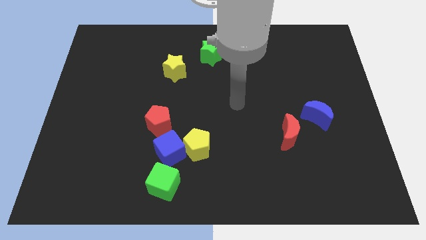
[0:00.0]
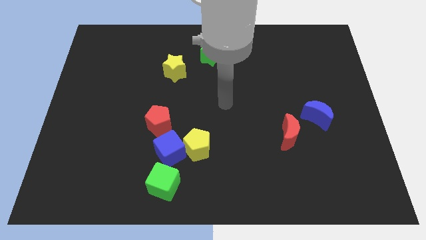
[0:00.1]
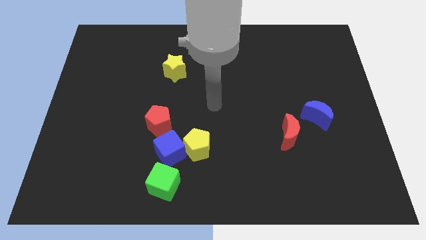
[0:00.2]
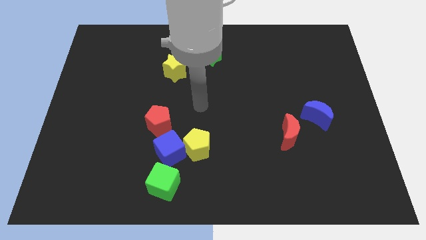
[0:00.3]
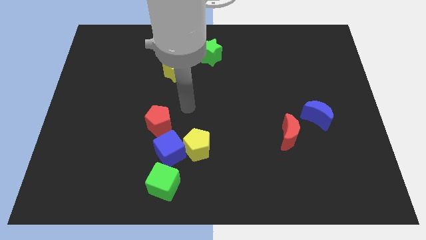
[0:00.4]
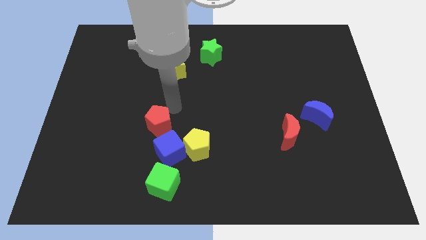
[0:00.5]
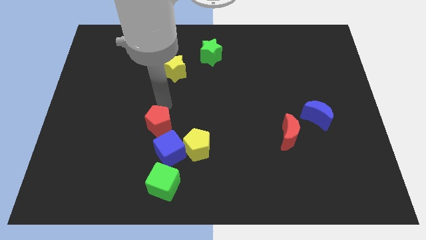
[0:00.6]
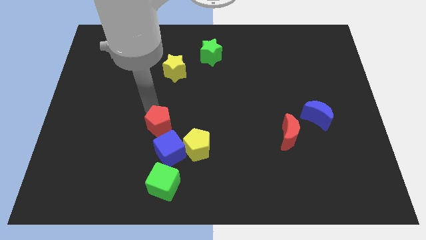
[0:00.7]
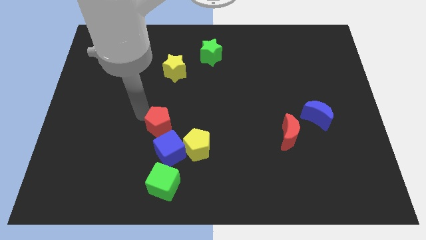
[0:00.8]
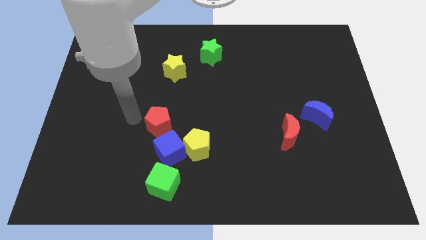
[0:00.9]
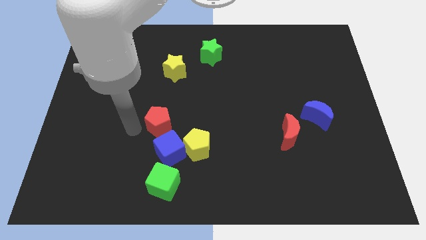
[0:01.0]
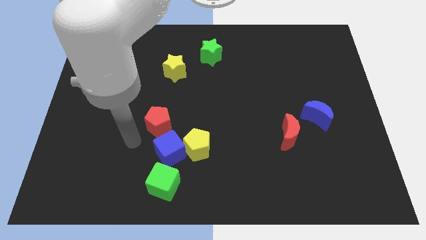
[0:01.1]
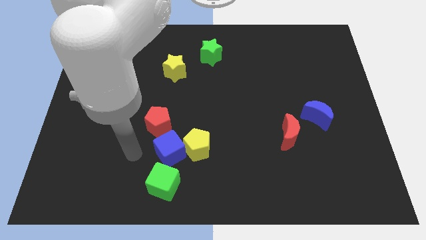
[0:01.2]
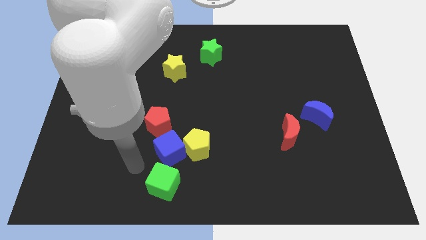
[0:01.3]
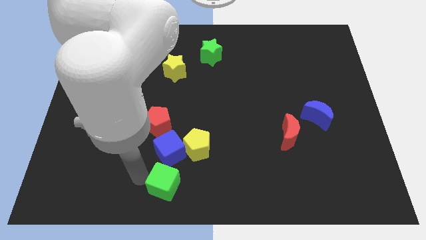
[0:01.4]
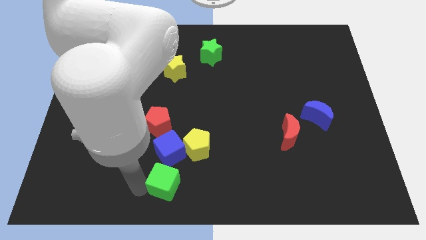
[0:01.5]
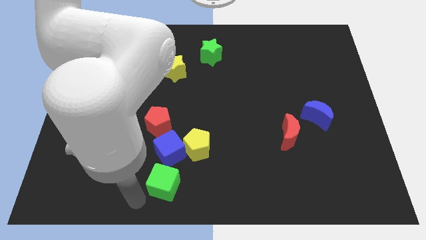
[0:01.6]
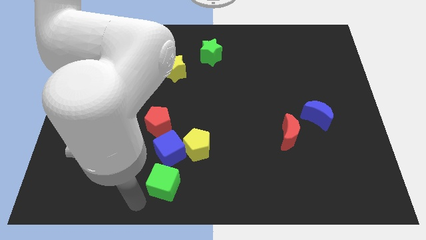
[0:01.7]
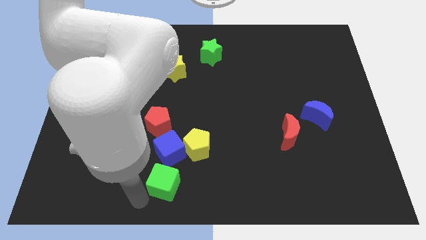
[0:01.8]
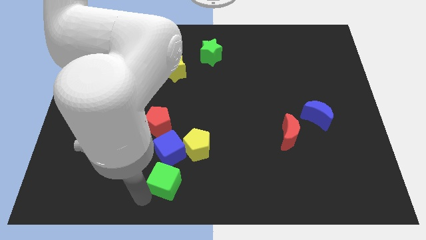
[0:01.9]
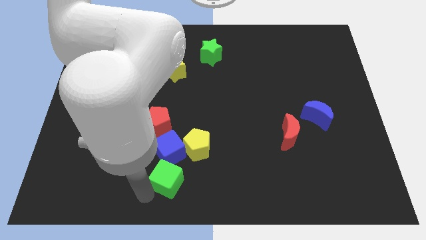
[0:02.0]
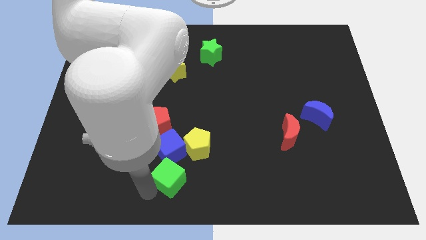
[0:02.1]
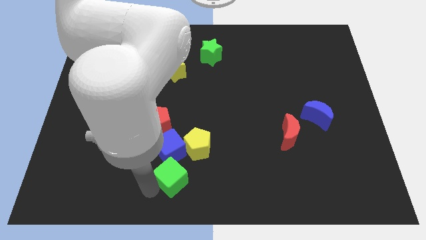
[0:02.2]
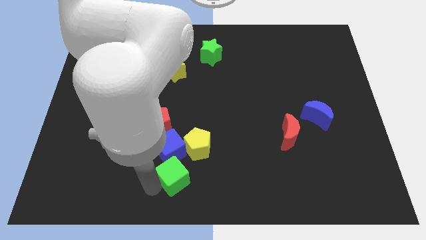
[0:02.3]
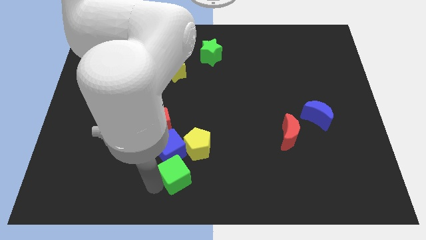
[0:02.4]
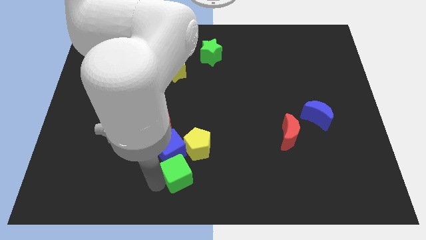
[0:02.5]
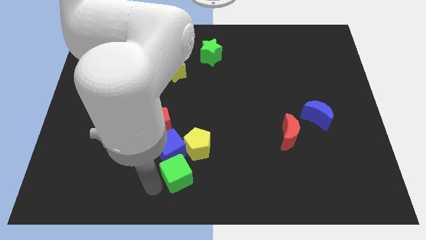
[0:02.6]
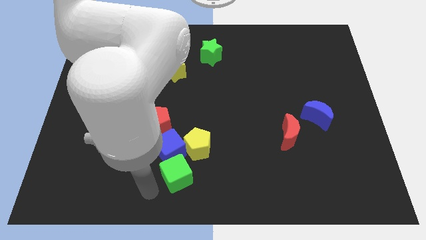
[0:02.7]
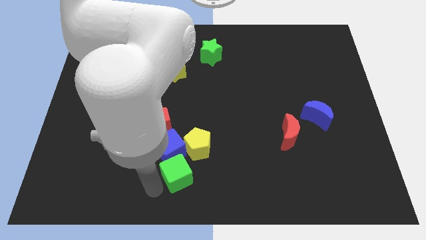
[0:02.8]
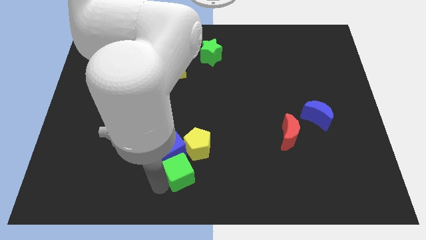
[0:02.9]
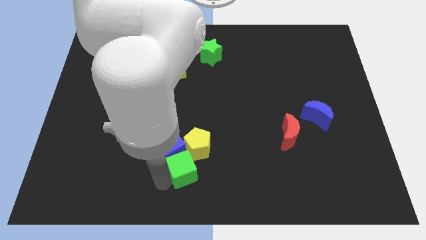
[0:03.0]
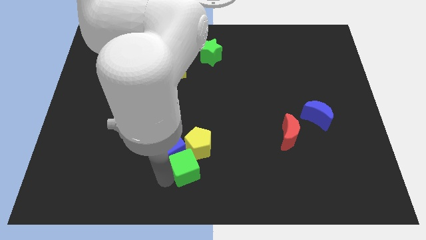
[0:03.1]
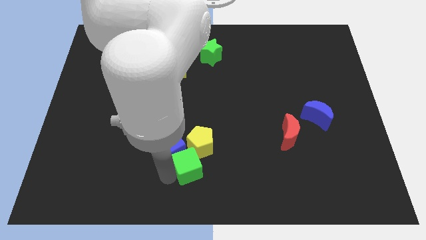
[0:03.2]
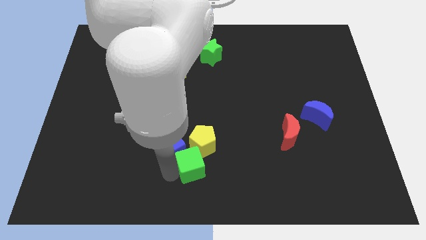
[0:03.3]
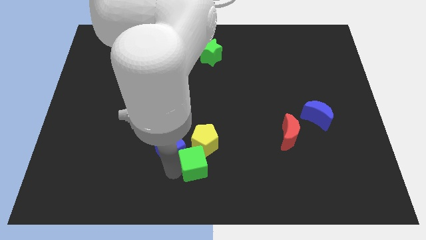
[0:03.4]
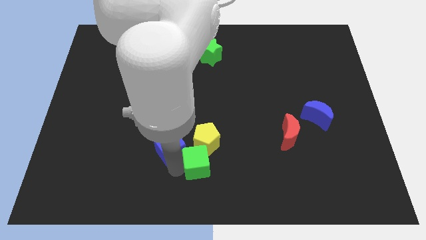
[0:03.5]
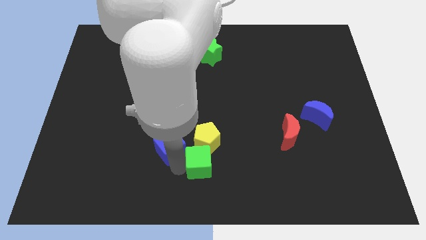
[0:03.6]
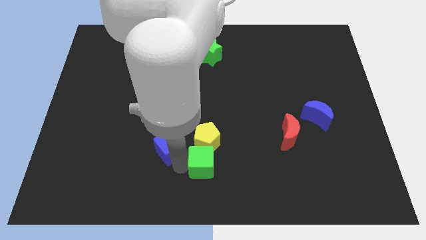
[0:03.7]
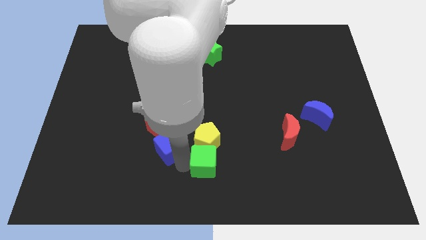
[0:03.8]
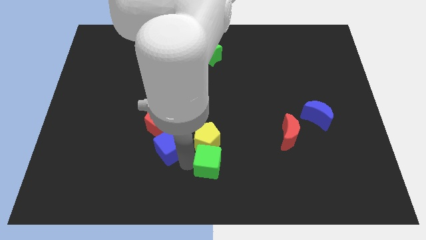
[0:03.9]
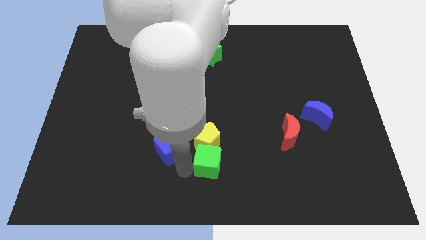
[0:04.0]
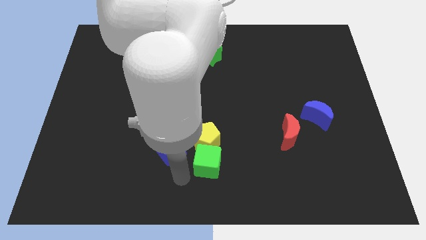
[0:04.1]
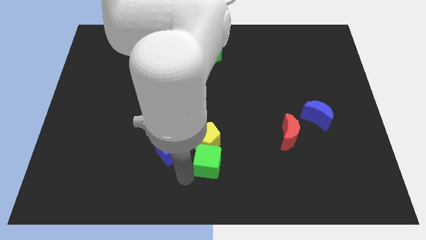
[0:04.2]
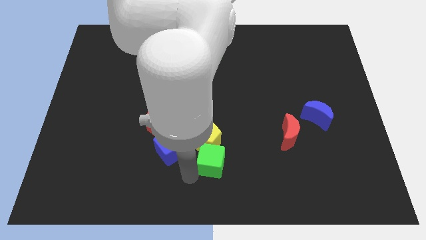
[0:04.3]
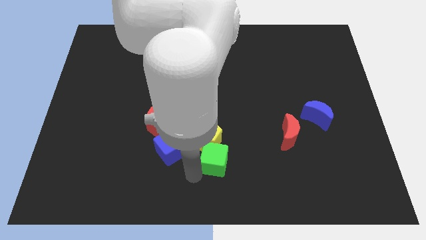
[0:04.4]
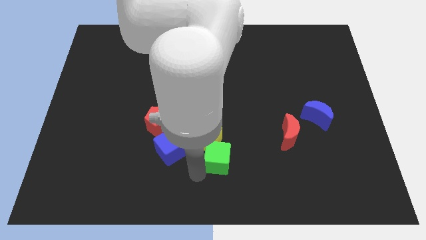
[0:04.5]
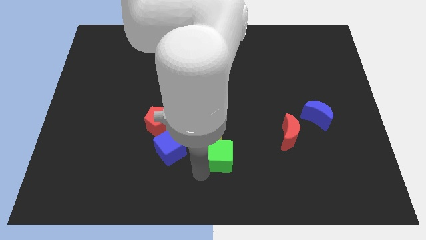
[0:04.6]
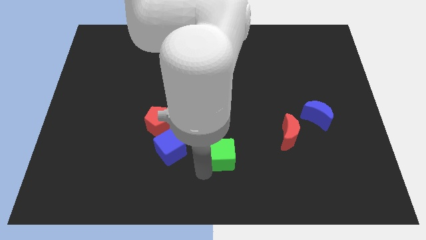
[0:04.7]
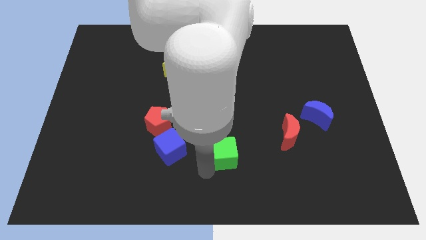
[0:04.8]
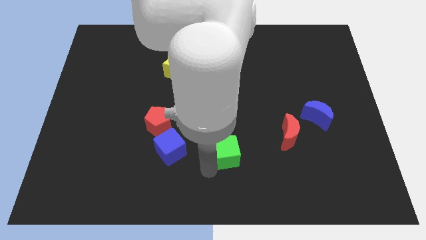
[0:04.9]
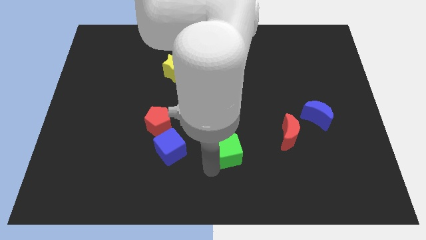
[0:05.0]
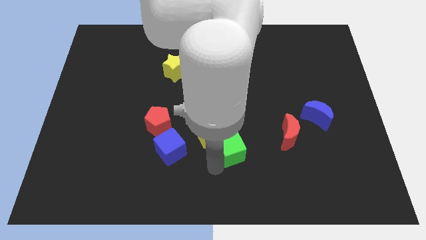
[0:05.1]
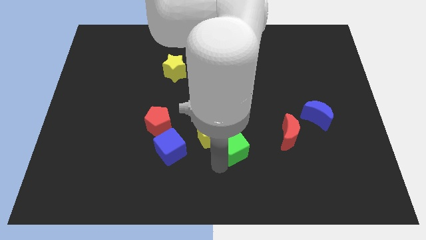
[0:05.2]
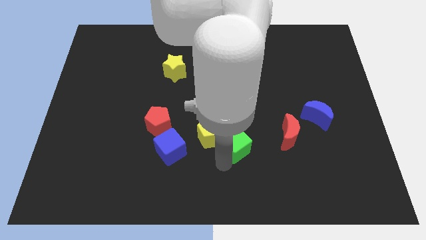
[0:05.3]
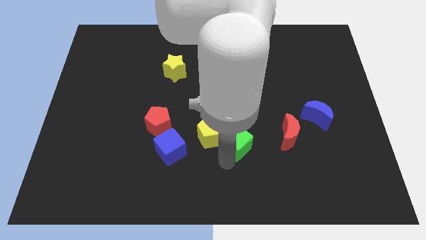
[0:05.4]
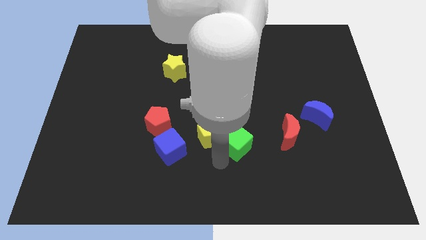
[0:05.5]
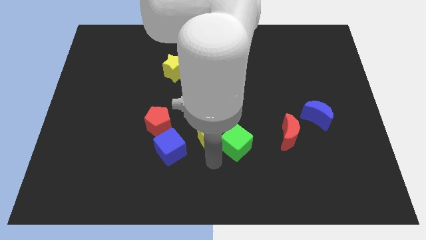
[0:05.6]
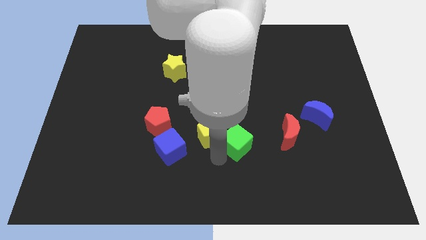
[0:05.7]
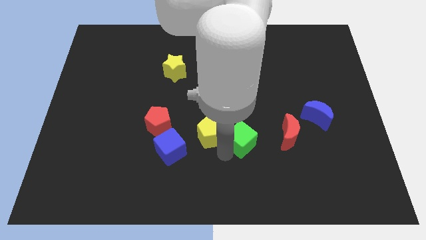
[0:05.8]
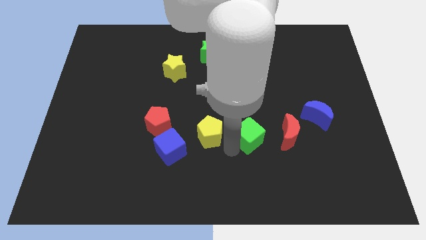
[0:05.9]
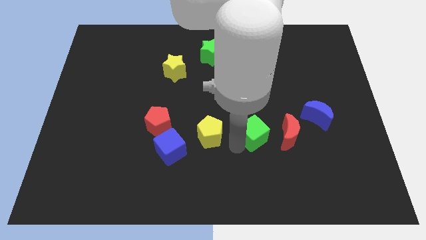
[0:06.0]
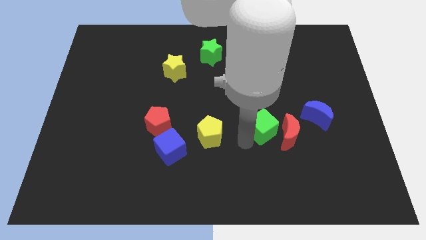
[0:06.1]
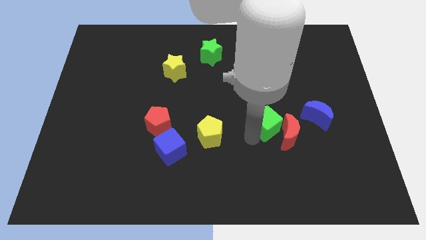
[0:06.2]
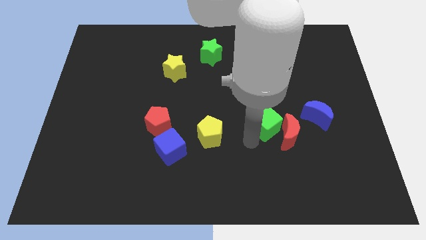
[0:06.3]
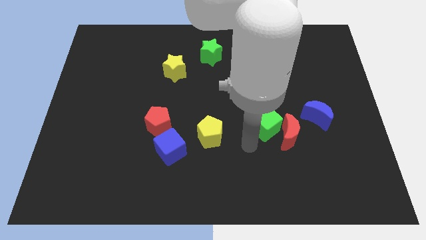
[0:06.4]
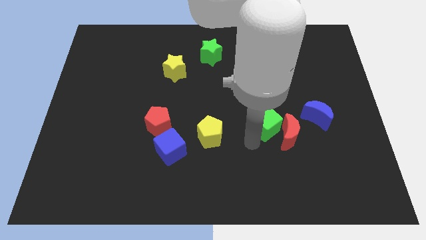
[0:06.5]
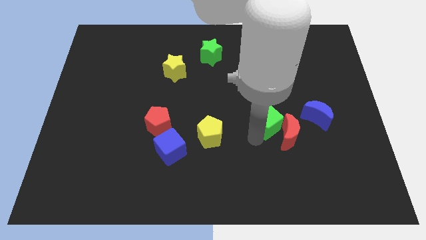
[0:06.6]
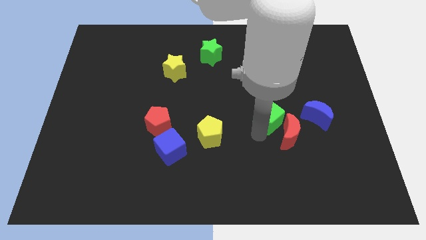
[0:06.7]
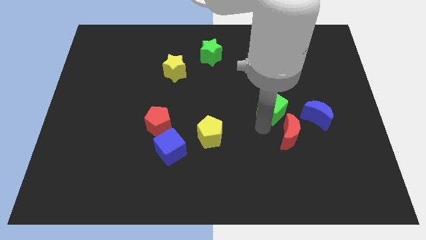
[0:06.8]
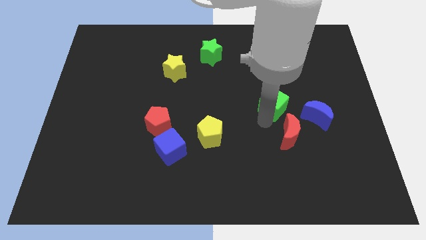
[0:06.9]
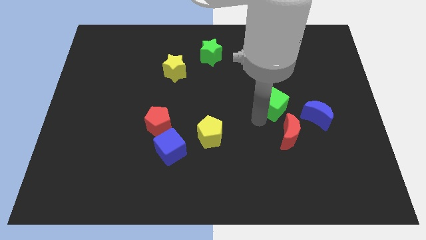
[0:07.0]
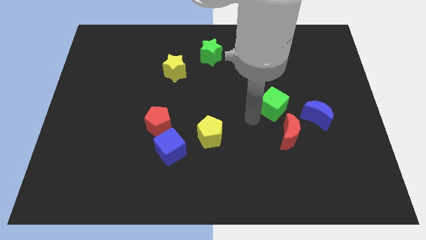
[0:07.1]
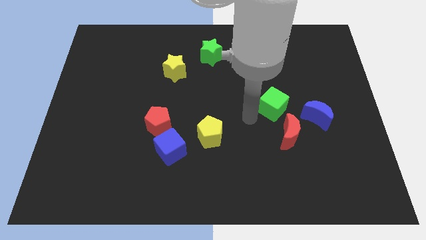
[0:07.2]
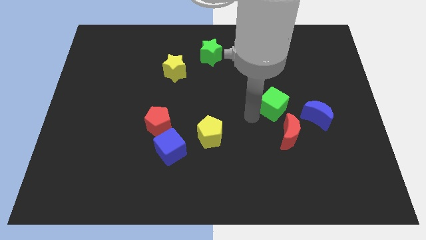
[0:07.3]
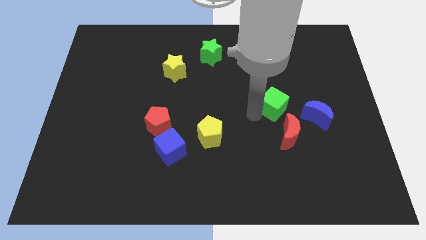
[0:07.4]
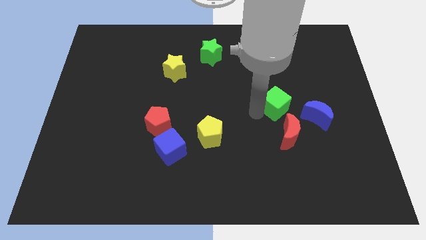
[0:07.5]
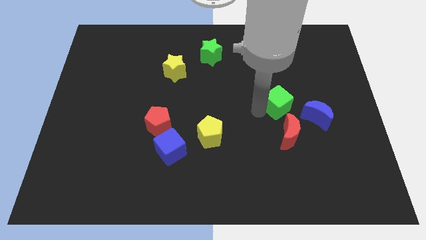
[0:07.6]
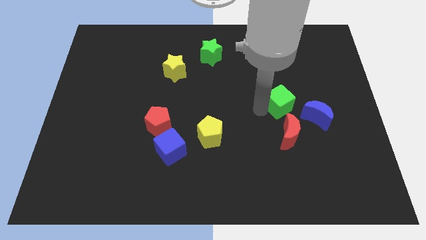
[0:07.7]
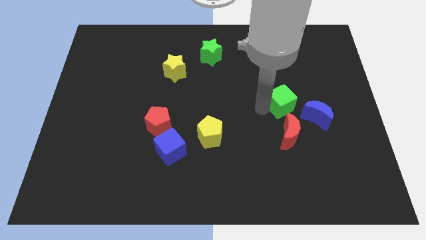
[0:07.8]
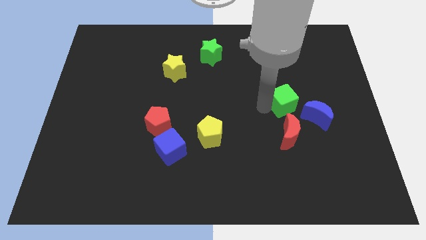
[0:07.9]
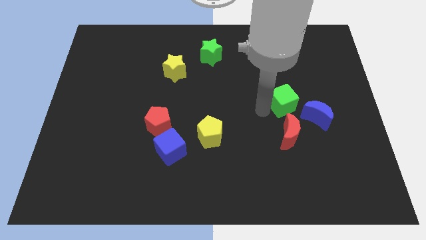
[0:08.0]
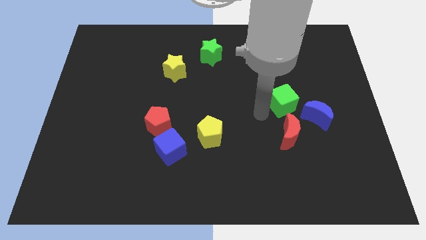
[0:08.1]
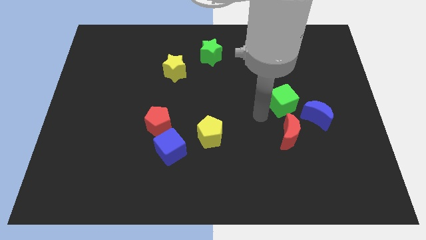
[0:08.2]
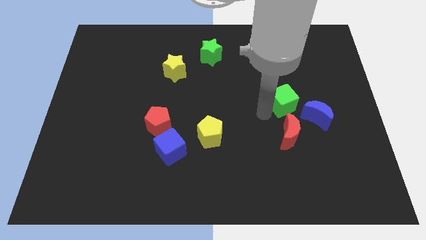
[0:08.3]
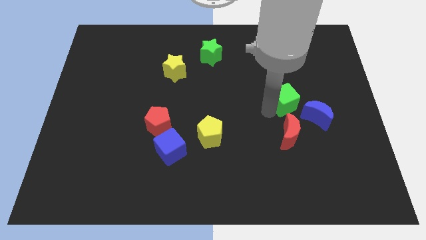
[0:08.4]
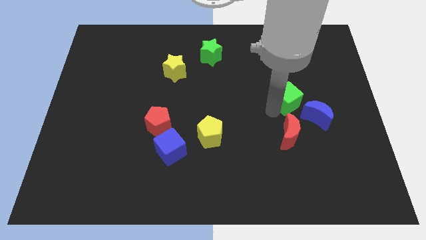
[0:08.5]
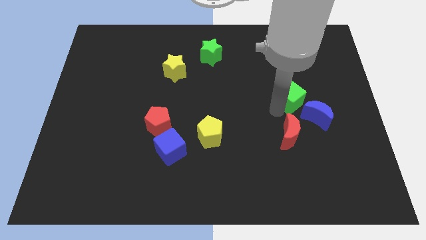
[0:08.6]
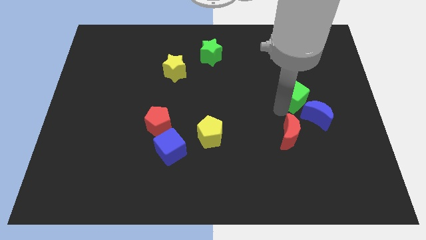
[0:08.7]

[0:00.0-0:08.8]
put the green cube to the top side of the blue moon
